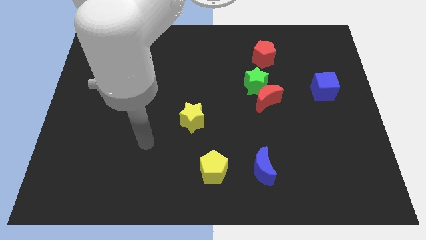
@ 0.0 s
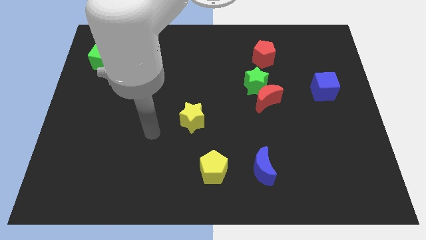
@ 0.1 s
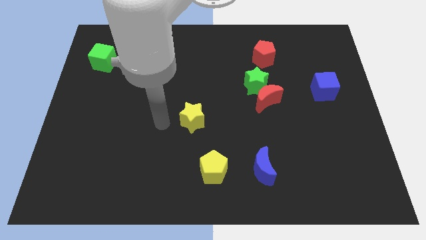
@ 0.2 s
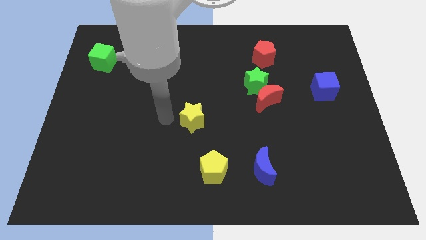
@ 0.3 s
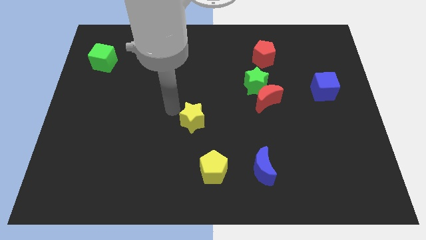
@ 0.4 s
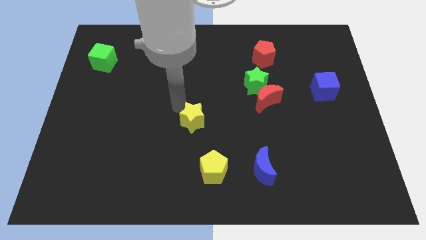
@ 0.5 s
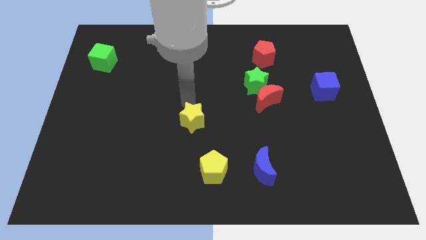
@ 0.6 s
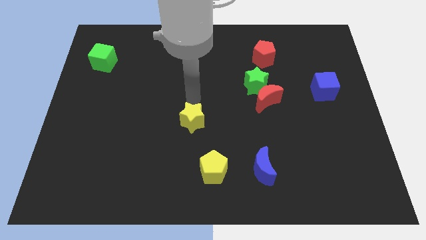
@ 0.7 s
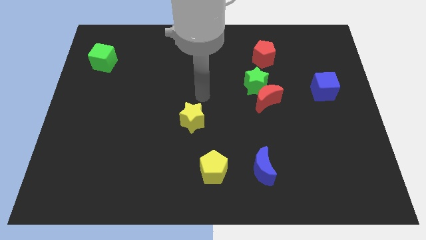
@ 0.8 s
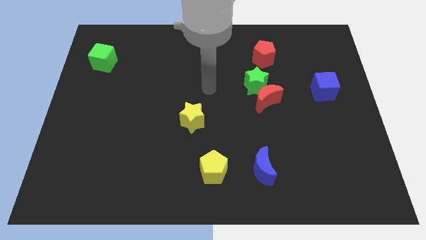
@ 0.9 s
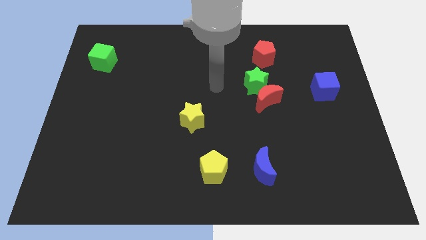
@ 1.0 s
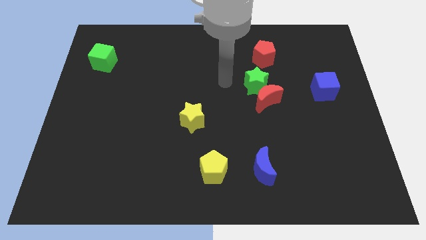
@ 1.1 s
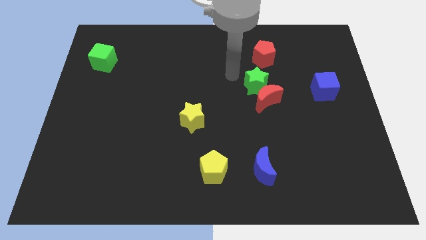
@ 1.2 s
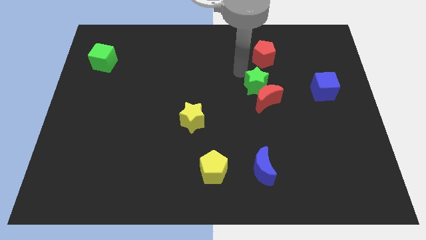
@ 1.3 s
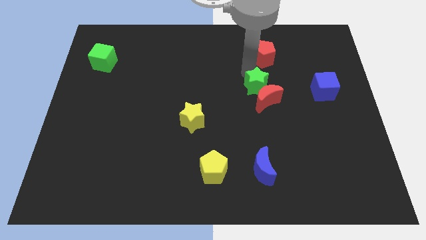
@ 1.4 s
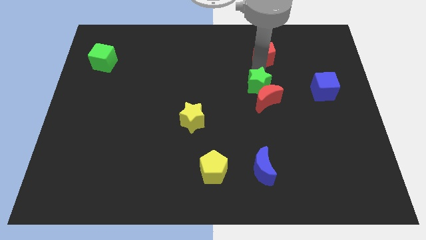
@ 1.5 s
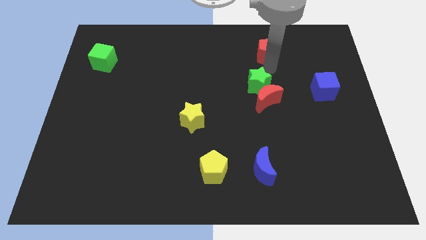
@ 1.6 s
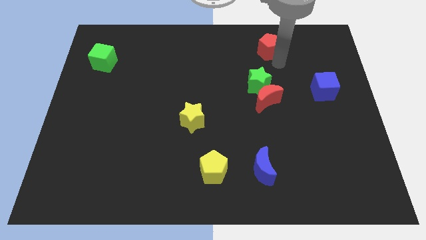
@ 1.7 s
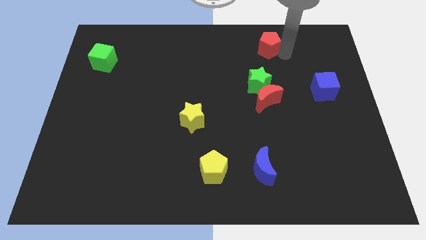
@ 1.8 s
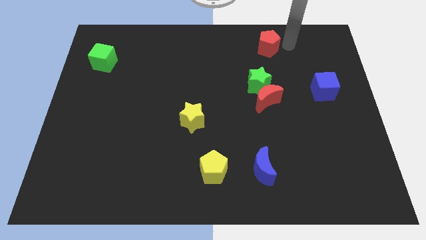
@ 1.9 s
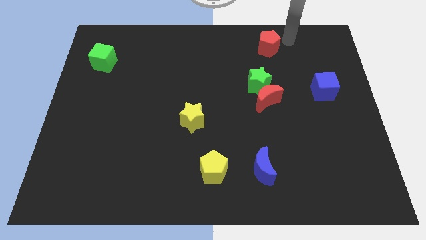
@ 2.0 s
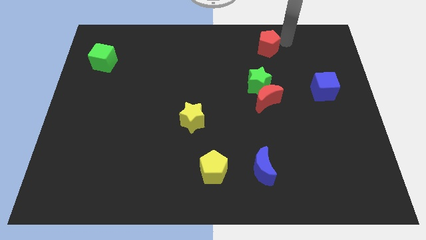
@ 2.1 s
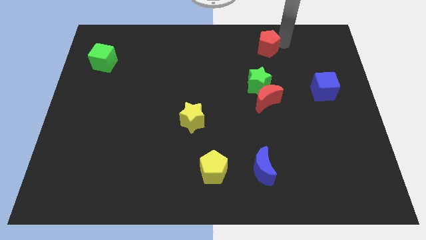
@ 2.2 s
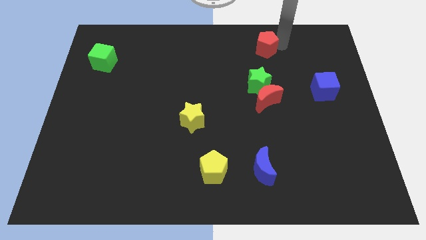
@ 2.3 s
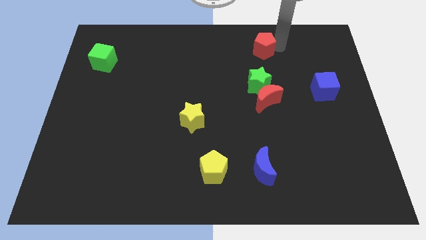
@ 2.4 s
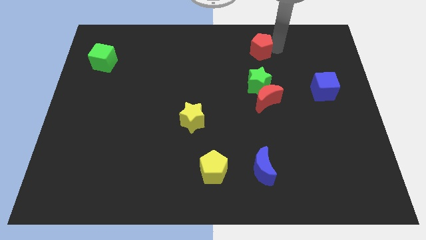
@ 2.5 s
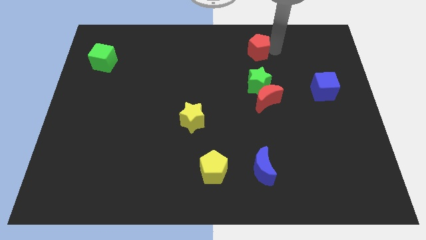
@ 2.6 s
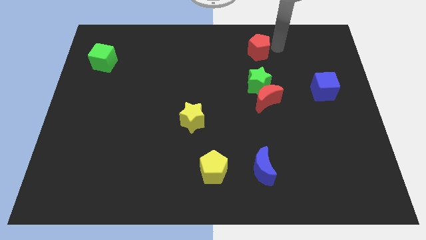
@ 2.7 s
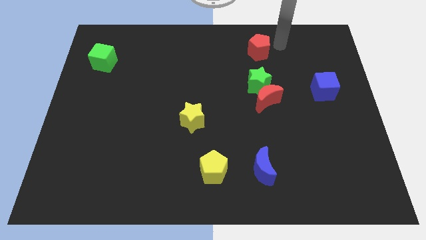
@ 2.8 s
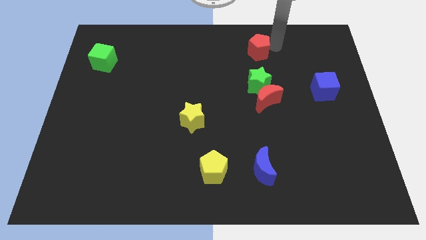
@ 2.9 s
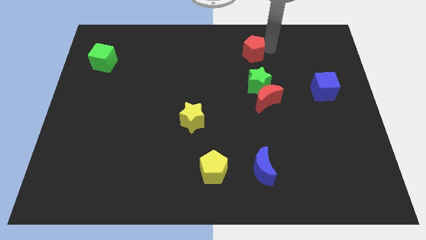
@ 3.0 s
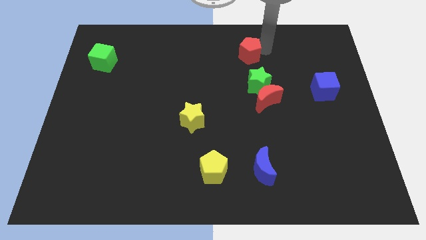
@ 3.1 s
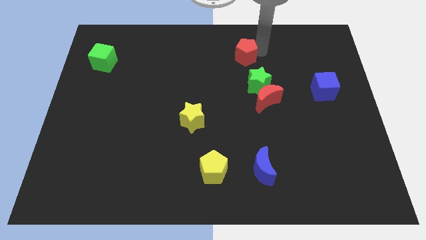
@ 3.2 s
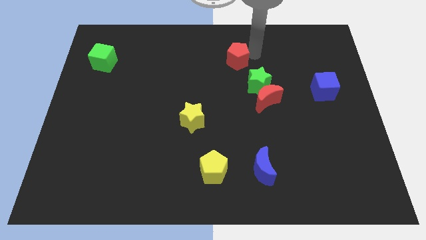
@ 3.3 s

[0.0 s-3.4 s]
push the red pentagon to the left a bit

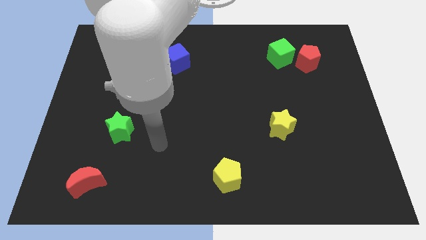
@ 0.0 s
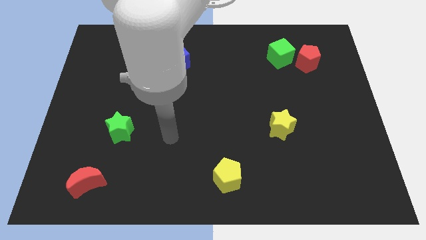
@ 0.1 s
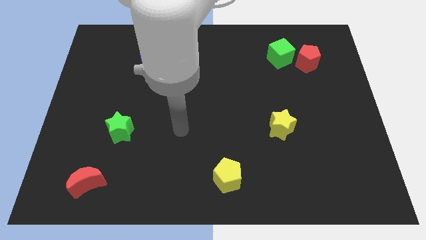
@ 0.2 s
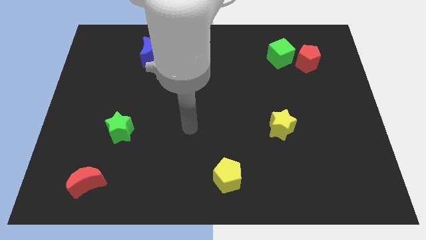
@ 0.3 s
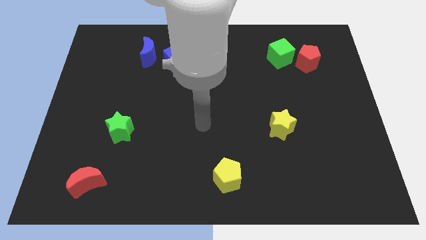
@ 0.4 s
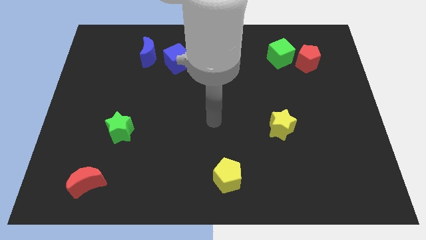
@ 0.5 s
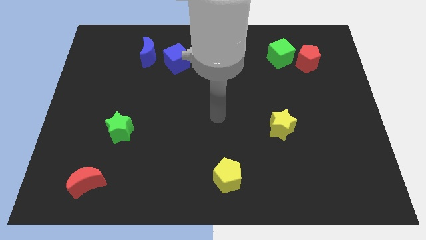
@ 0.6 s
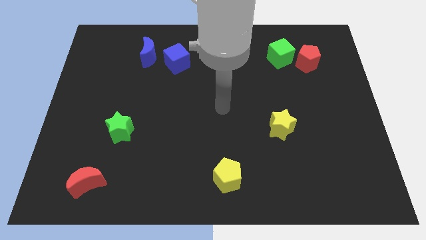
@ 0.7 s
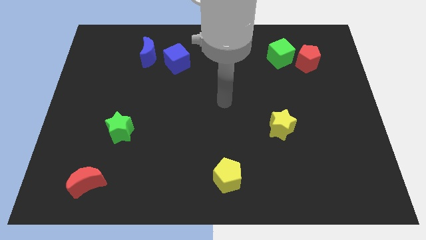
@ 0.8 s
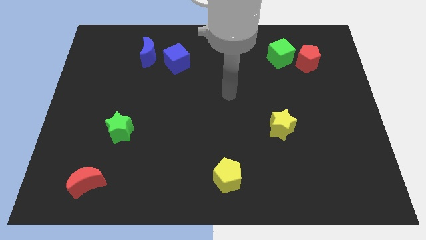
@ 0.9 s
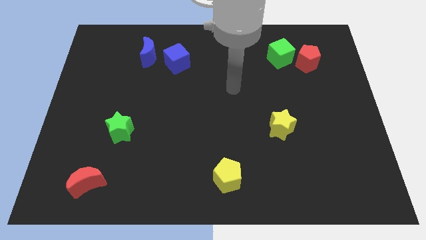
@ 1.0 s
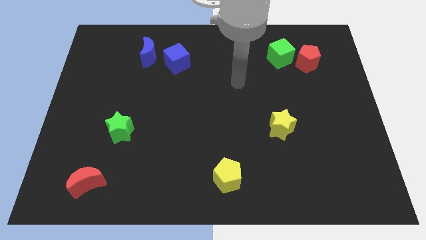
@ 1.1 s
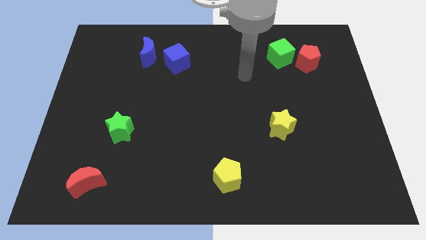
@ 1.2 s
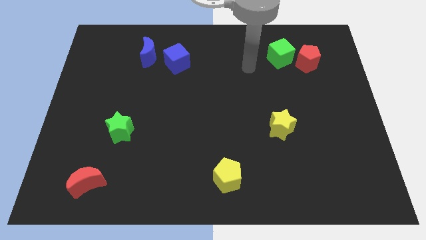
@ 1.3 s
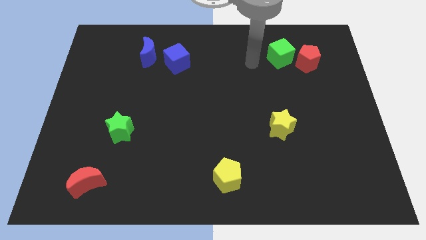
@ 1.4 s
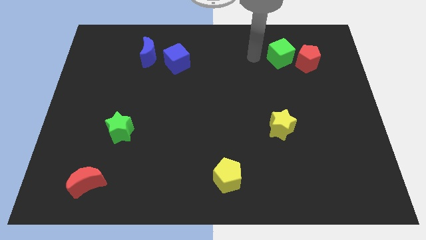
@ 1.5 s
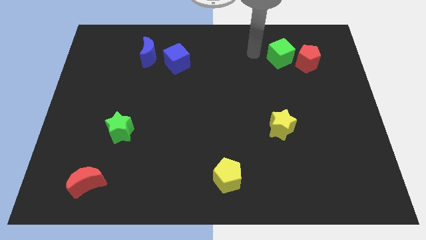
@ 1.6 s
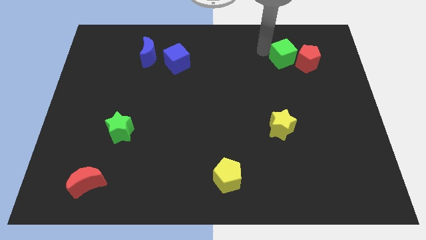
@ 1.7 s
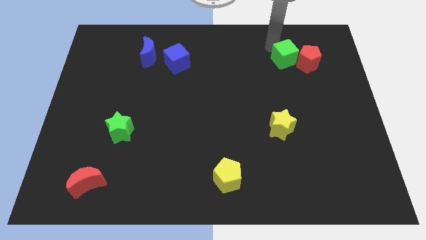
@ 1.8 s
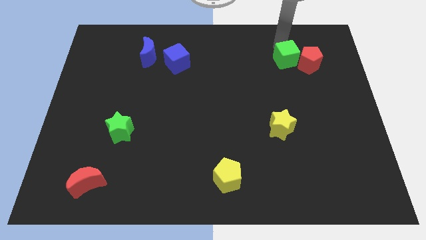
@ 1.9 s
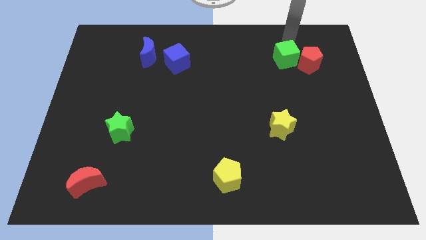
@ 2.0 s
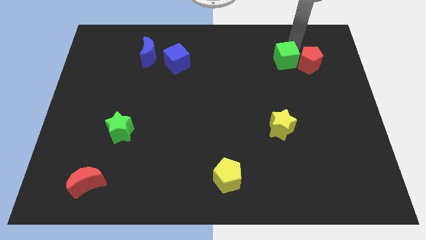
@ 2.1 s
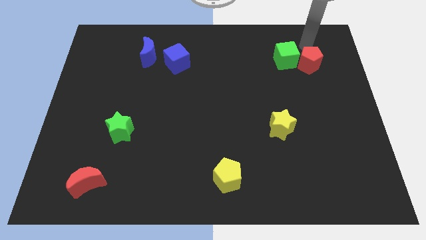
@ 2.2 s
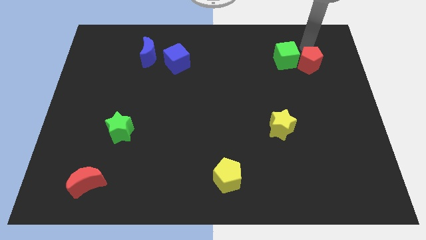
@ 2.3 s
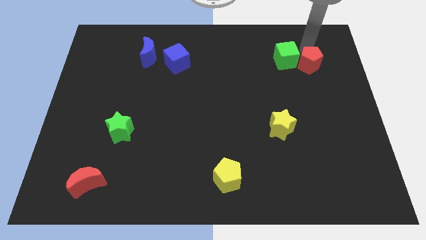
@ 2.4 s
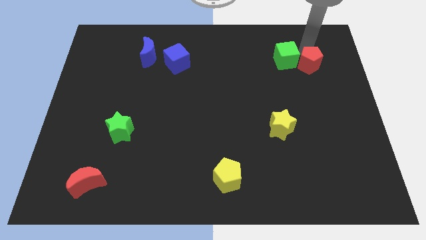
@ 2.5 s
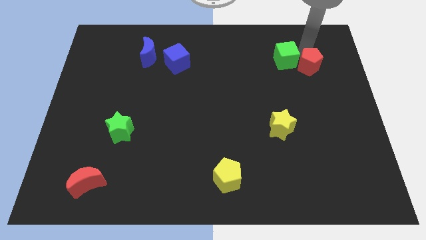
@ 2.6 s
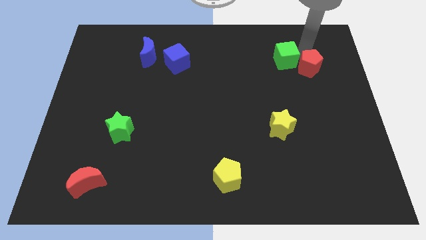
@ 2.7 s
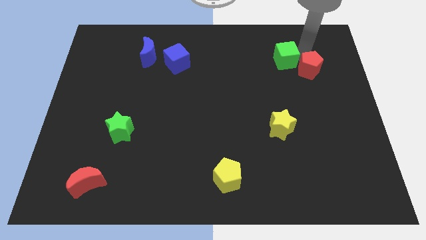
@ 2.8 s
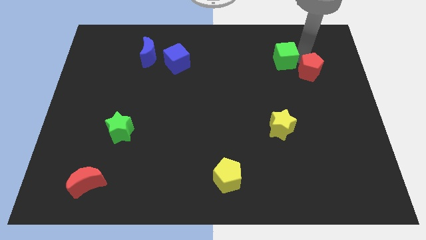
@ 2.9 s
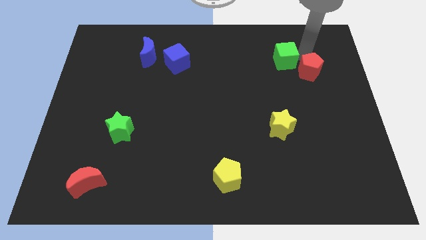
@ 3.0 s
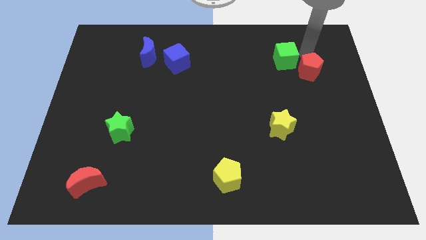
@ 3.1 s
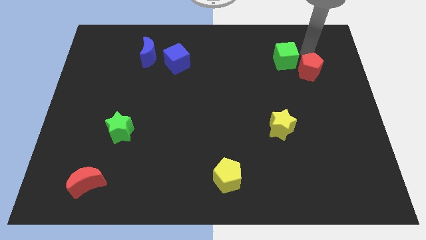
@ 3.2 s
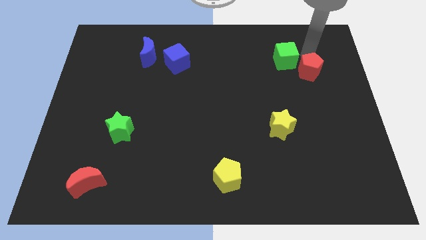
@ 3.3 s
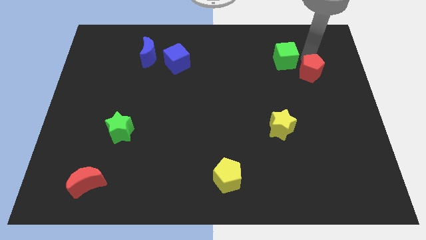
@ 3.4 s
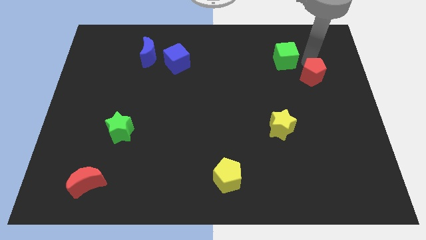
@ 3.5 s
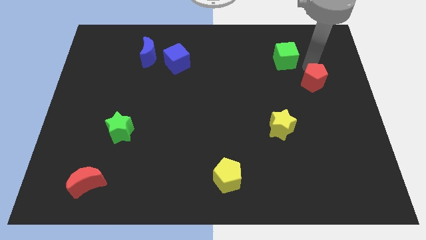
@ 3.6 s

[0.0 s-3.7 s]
slightly slide the red pentagon downwards

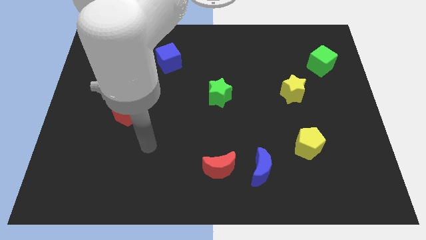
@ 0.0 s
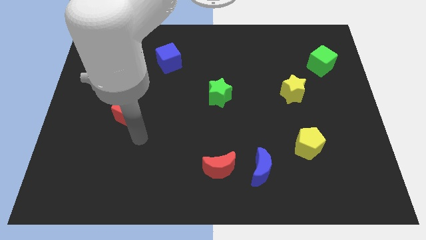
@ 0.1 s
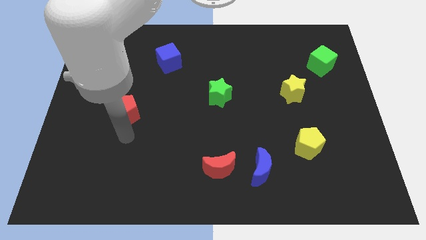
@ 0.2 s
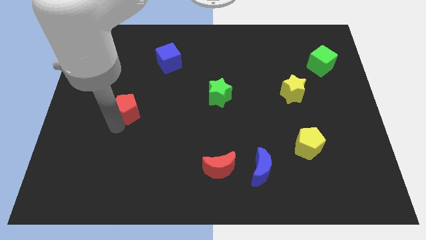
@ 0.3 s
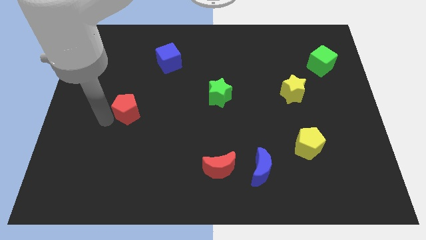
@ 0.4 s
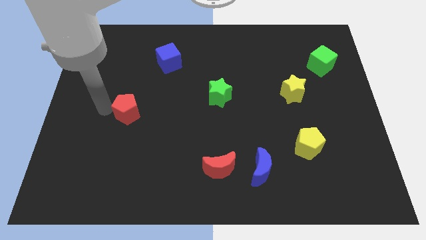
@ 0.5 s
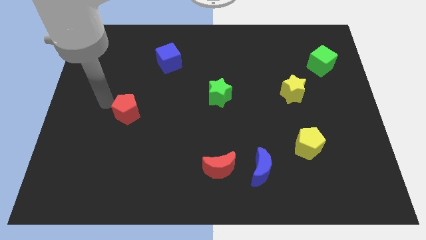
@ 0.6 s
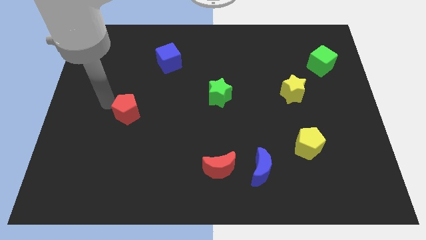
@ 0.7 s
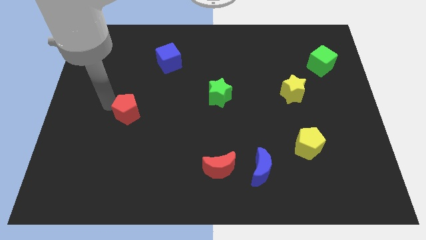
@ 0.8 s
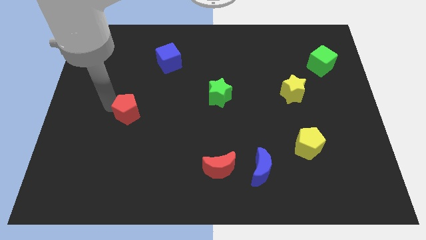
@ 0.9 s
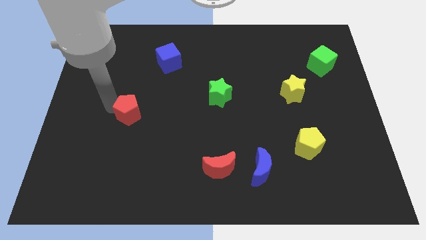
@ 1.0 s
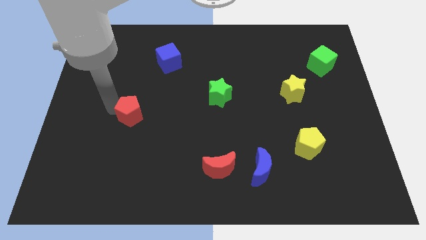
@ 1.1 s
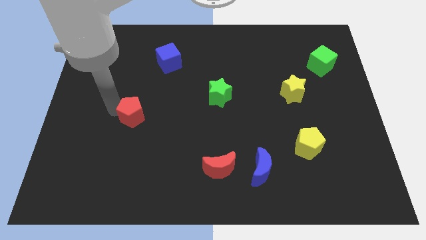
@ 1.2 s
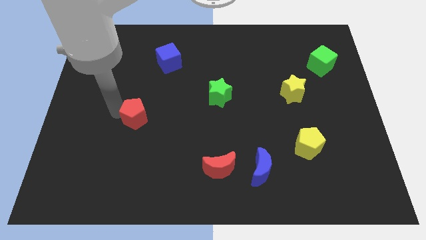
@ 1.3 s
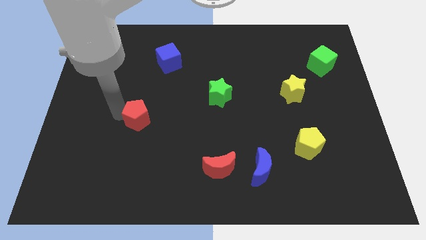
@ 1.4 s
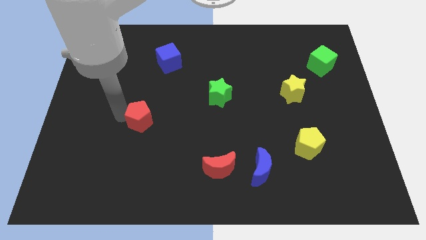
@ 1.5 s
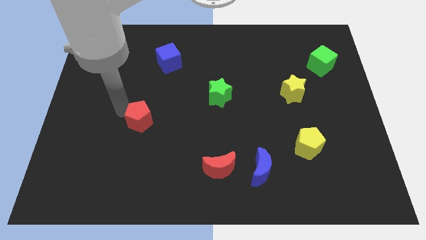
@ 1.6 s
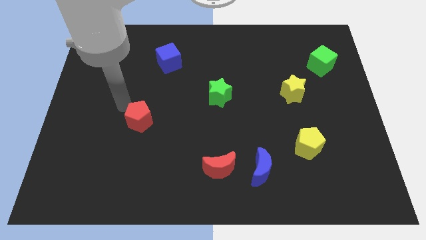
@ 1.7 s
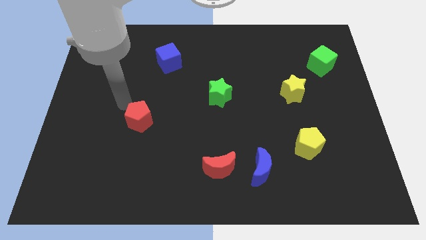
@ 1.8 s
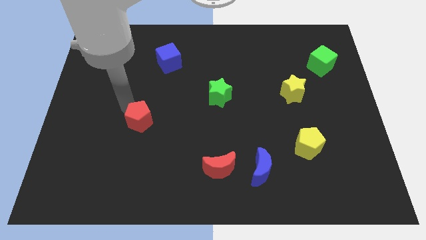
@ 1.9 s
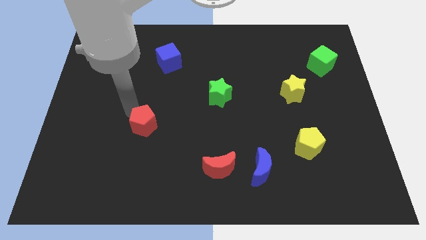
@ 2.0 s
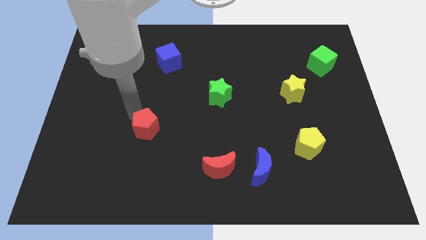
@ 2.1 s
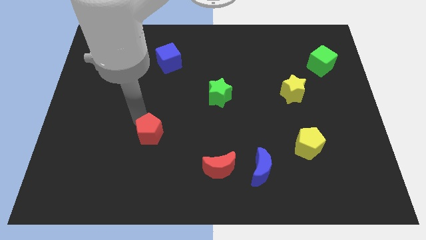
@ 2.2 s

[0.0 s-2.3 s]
slightly slide the red pentagon diagonally downwards and to the right
